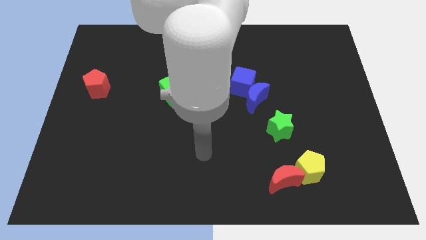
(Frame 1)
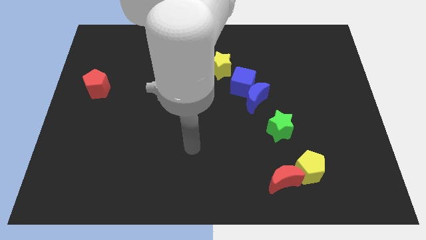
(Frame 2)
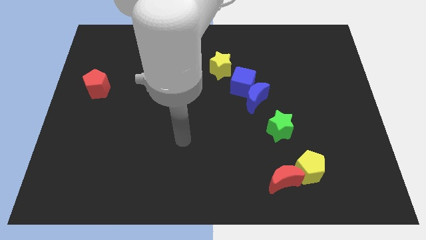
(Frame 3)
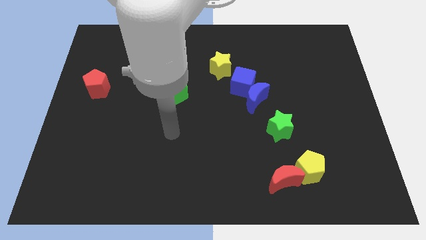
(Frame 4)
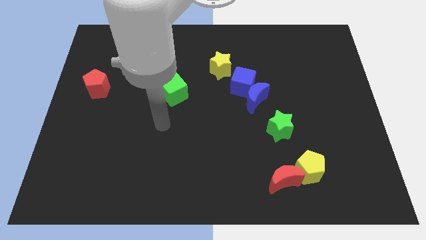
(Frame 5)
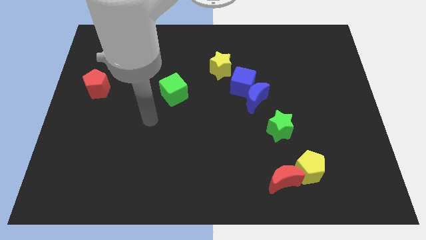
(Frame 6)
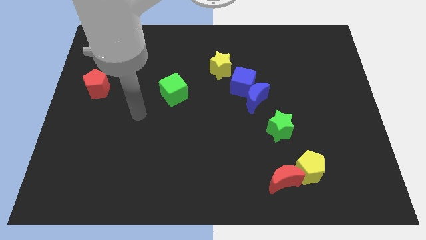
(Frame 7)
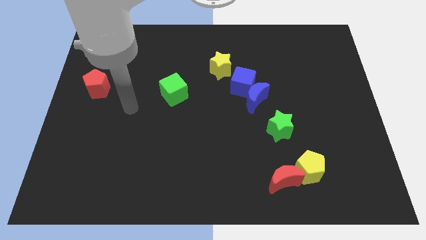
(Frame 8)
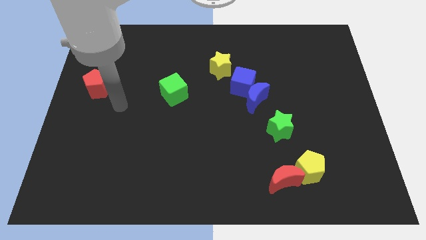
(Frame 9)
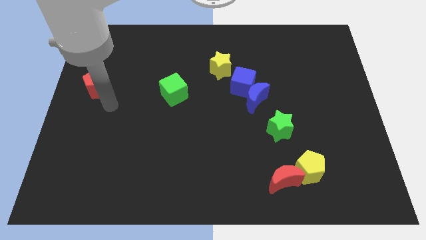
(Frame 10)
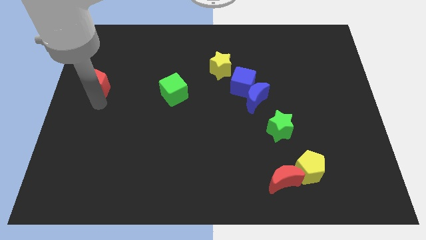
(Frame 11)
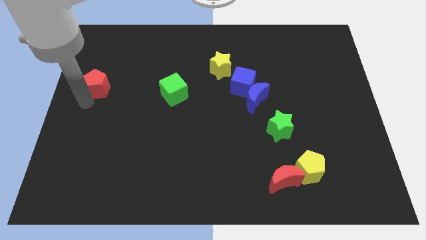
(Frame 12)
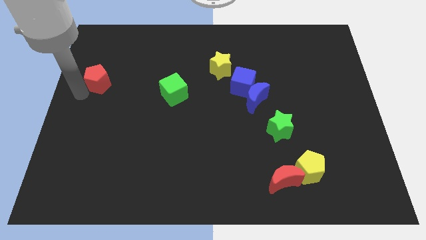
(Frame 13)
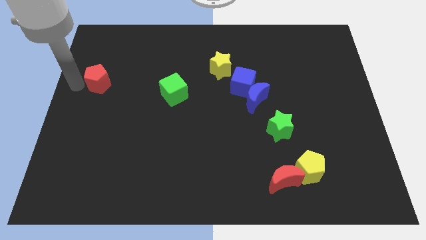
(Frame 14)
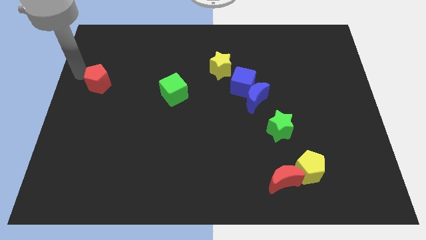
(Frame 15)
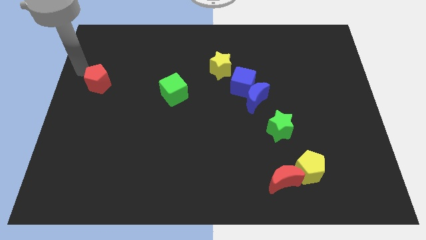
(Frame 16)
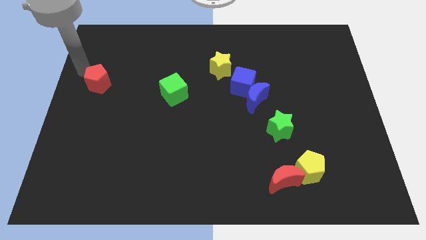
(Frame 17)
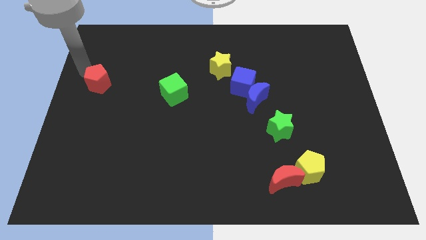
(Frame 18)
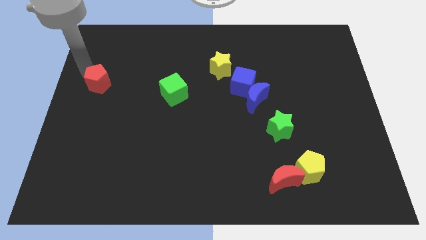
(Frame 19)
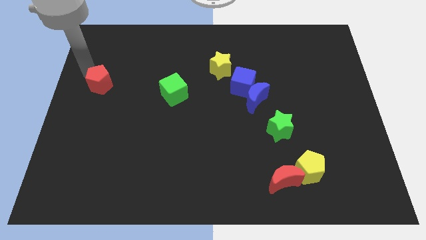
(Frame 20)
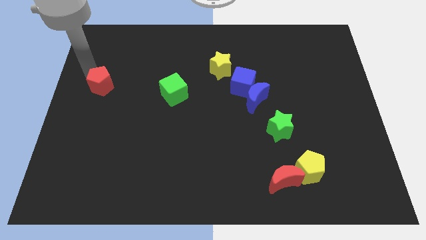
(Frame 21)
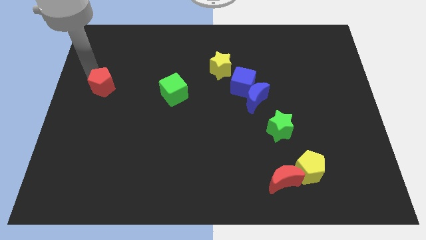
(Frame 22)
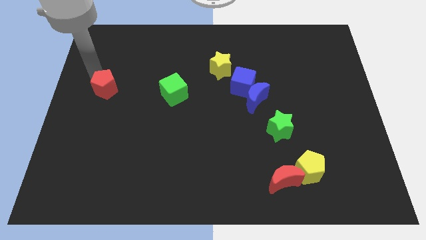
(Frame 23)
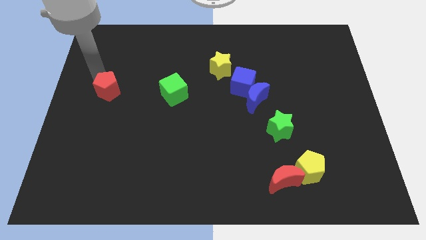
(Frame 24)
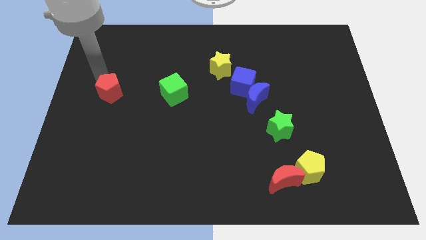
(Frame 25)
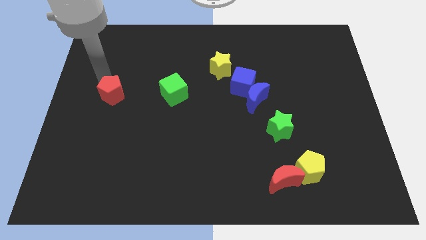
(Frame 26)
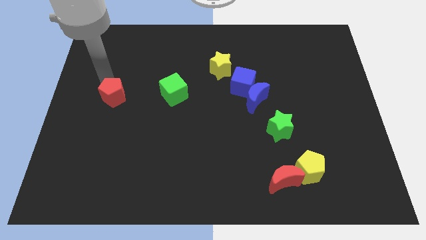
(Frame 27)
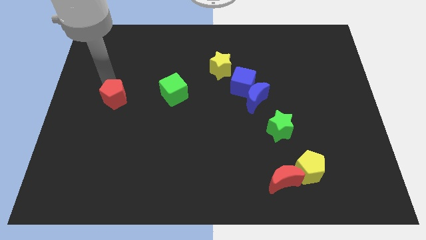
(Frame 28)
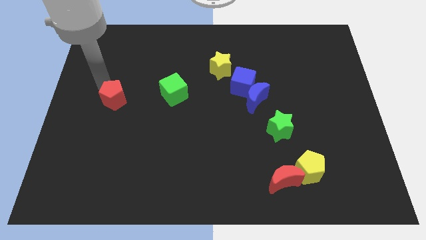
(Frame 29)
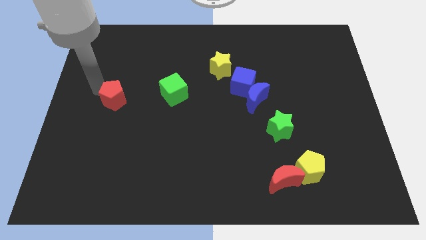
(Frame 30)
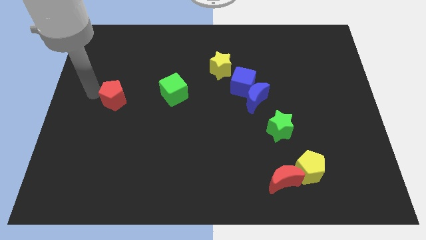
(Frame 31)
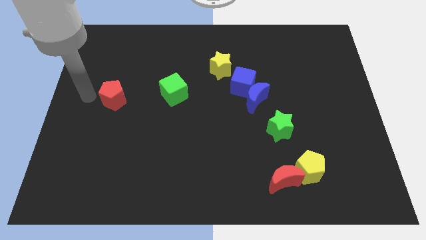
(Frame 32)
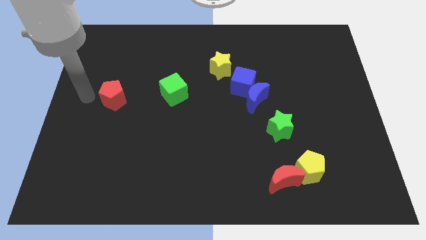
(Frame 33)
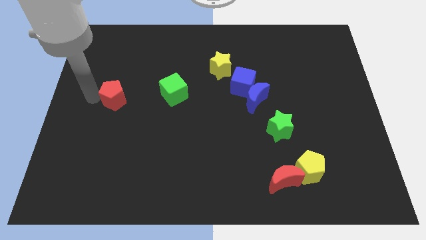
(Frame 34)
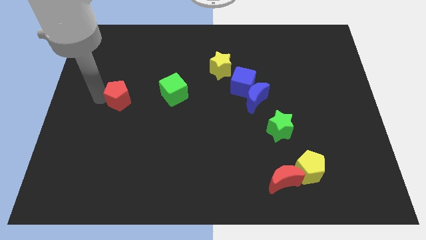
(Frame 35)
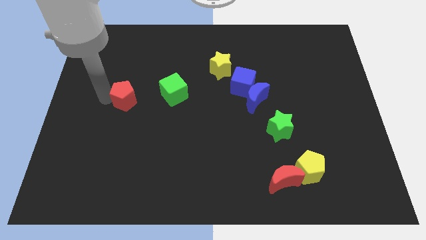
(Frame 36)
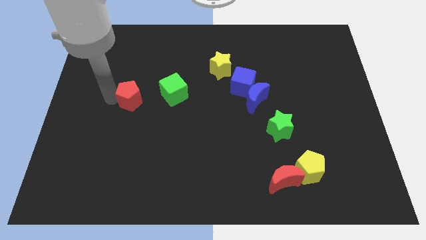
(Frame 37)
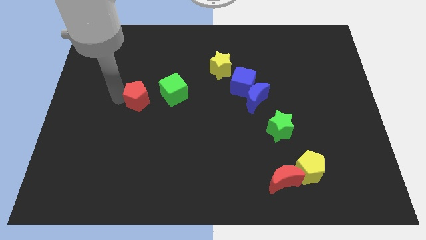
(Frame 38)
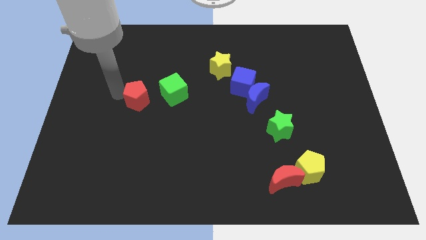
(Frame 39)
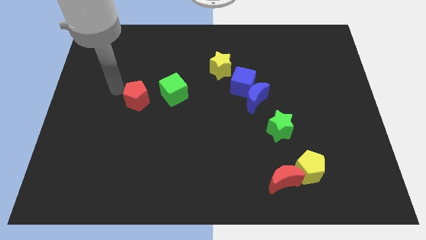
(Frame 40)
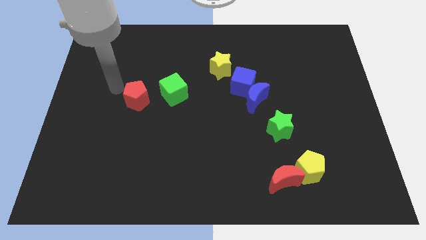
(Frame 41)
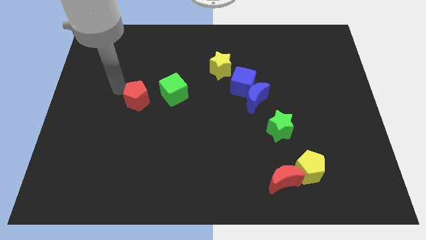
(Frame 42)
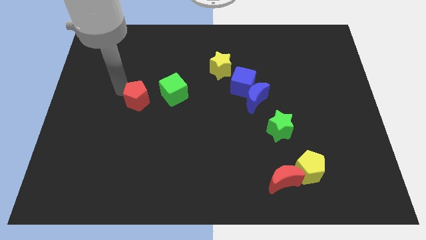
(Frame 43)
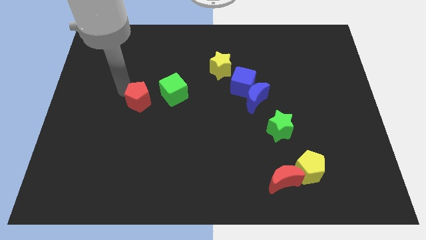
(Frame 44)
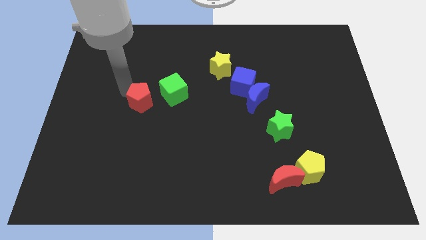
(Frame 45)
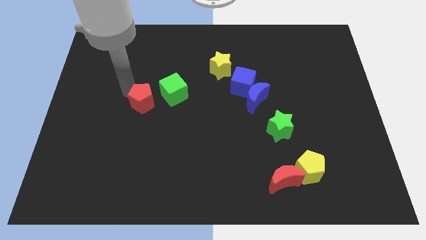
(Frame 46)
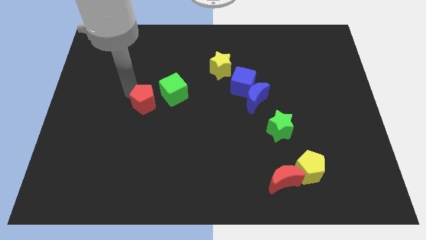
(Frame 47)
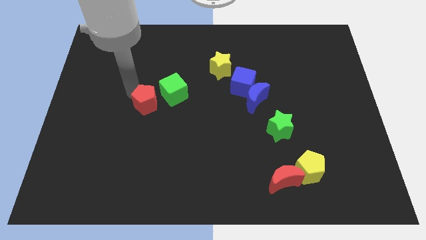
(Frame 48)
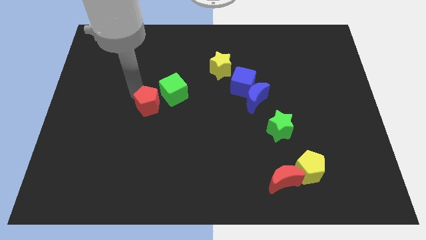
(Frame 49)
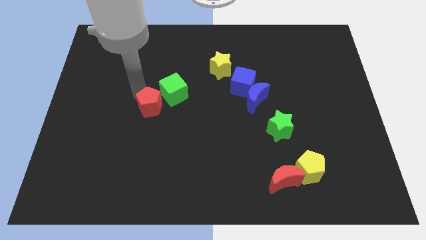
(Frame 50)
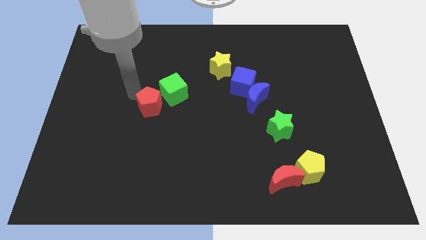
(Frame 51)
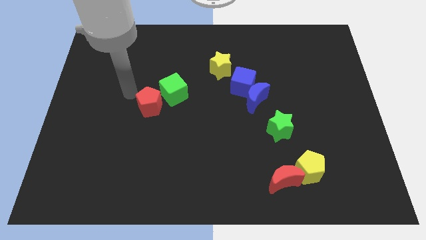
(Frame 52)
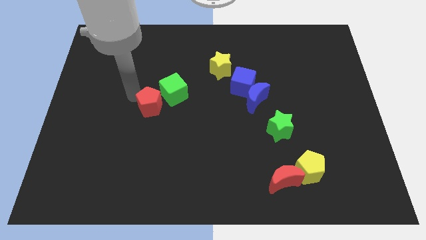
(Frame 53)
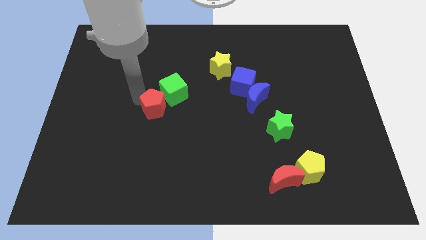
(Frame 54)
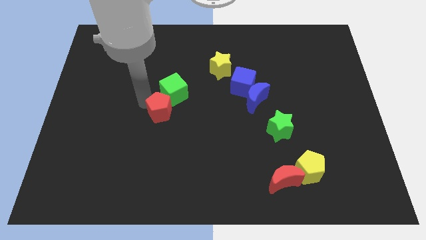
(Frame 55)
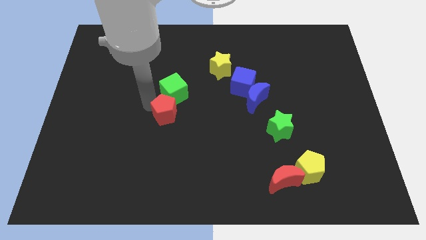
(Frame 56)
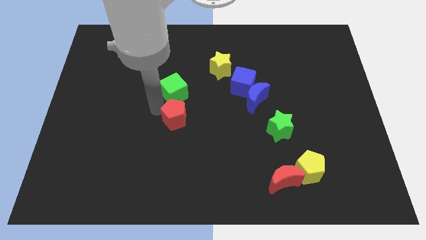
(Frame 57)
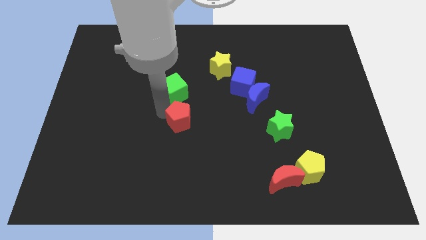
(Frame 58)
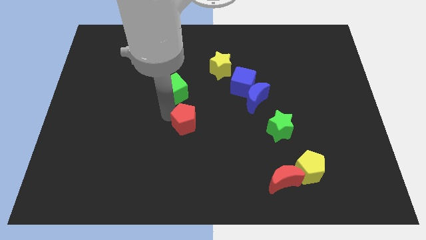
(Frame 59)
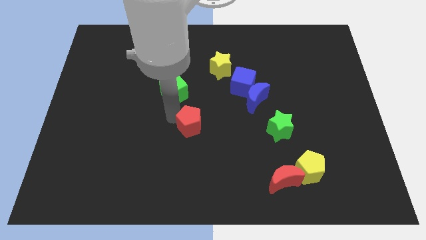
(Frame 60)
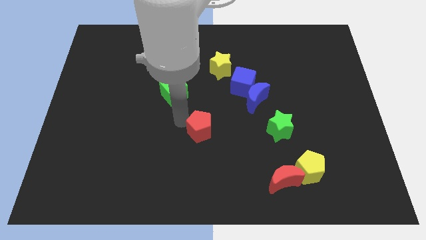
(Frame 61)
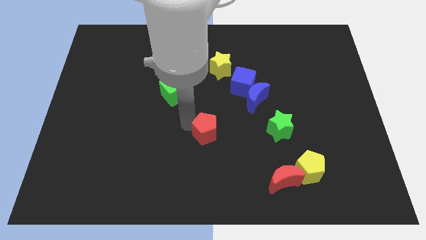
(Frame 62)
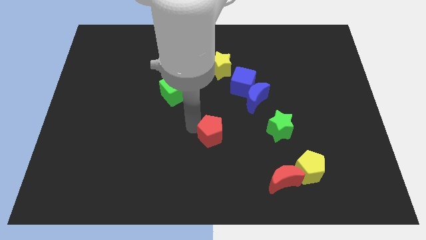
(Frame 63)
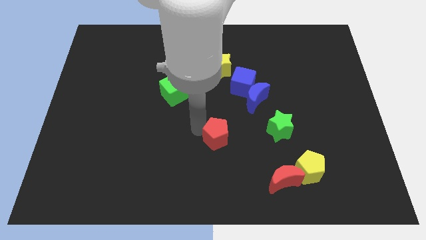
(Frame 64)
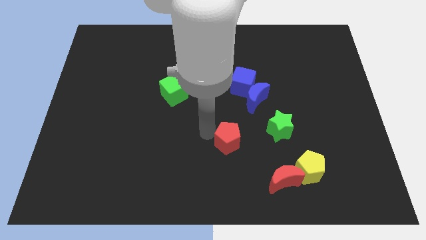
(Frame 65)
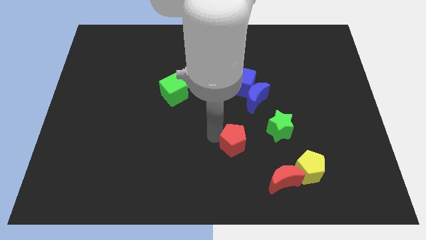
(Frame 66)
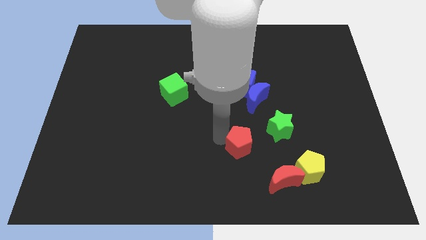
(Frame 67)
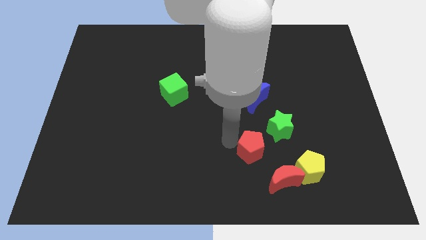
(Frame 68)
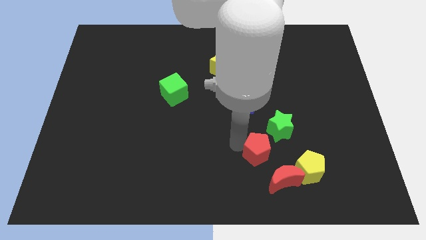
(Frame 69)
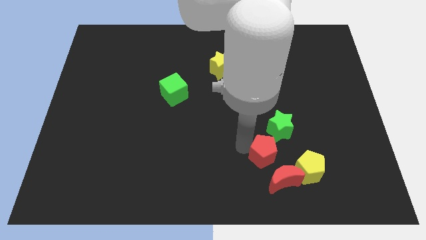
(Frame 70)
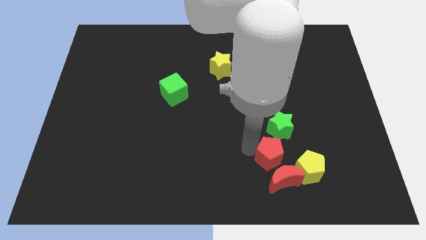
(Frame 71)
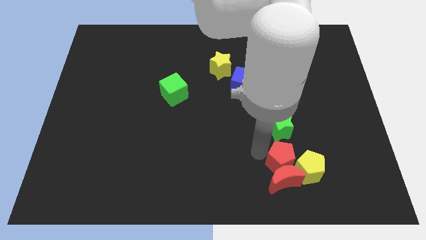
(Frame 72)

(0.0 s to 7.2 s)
move the red pentagon to the yellow pentagon
